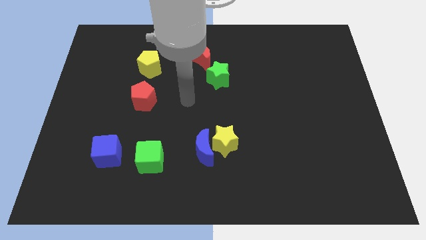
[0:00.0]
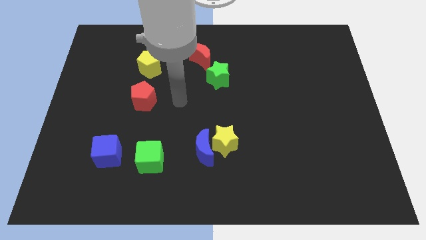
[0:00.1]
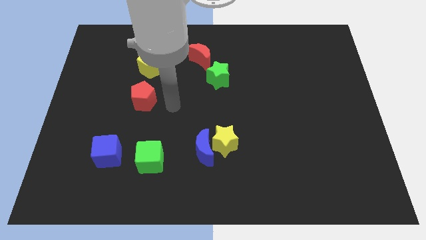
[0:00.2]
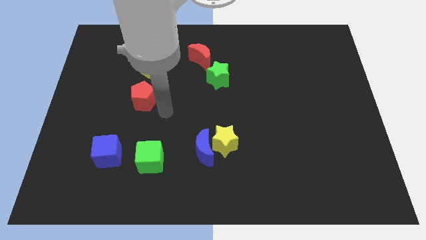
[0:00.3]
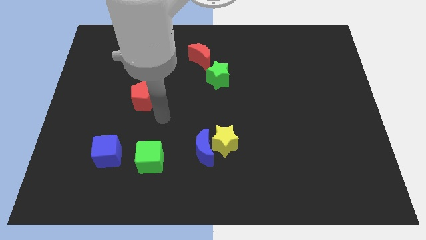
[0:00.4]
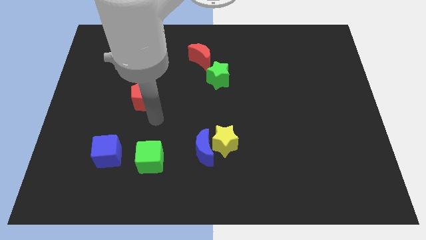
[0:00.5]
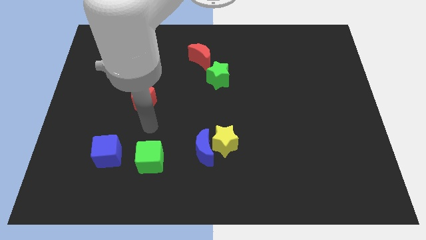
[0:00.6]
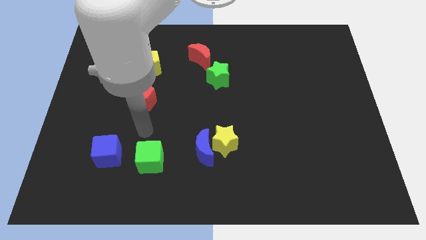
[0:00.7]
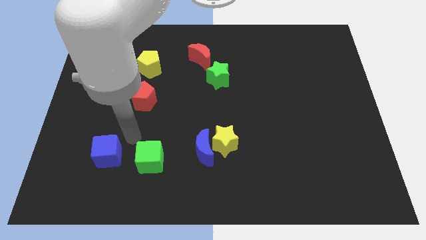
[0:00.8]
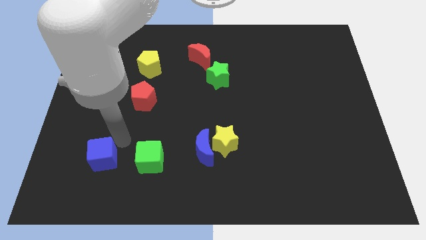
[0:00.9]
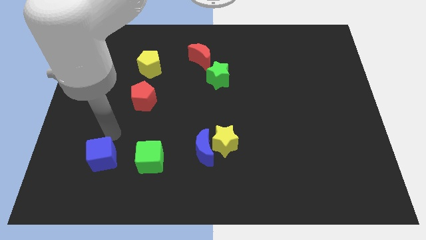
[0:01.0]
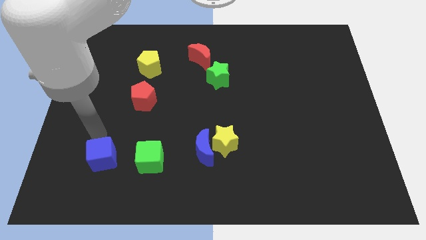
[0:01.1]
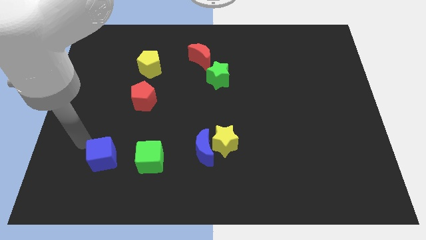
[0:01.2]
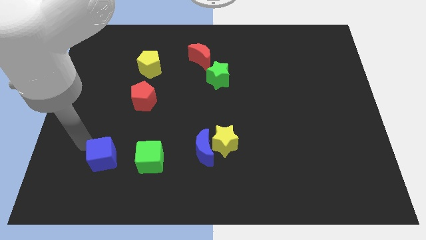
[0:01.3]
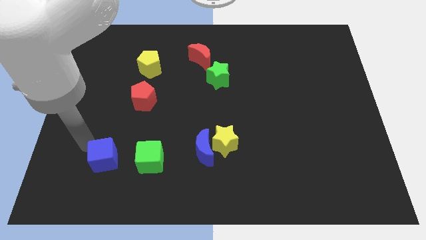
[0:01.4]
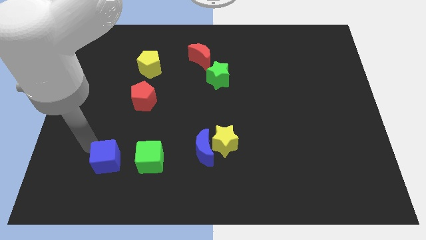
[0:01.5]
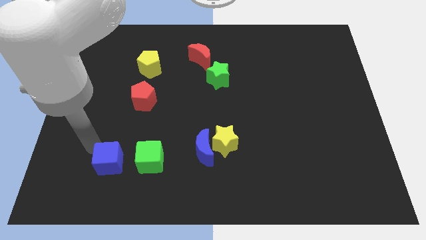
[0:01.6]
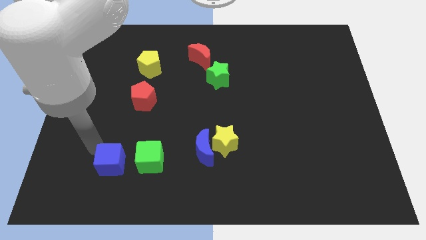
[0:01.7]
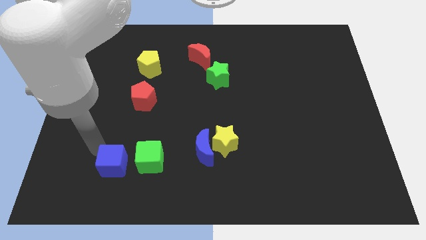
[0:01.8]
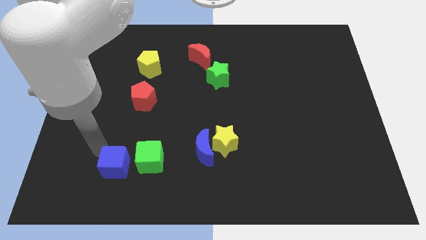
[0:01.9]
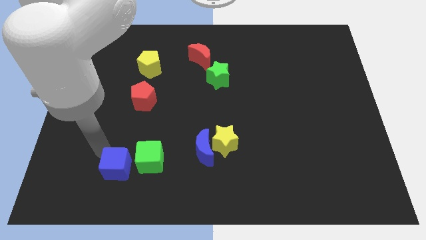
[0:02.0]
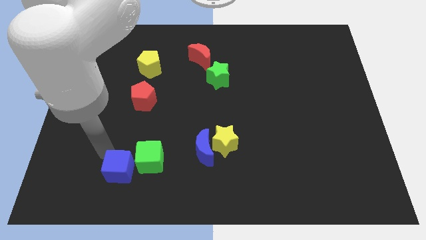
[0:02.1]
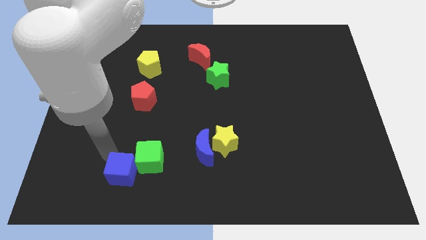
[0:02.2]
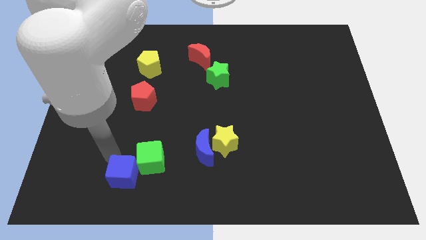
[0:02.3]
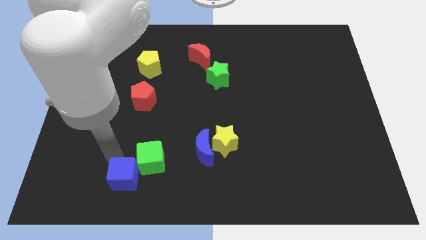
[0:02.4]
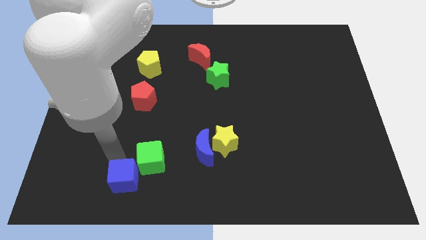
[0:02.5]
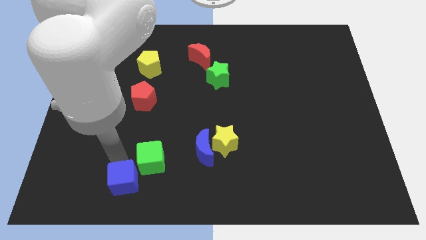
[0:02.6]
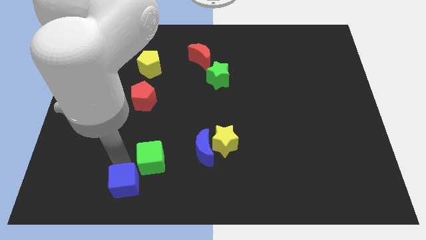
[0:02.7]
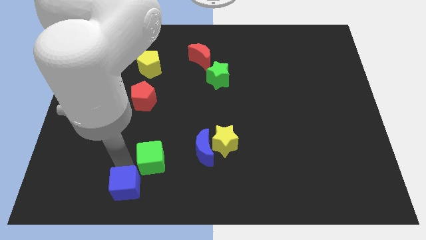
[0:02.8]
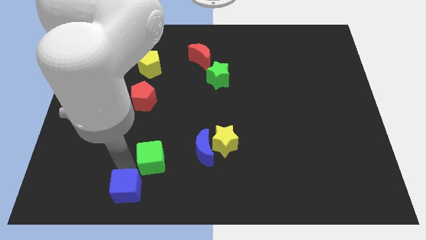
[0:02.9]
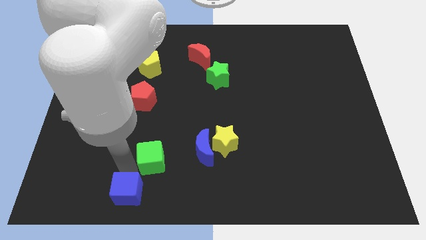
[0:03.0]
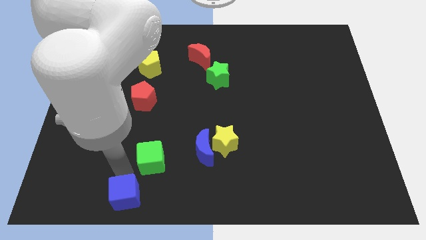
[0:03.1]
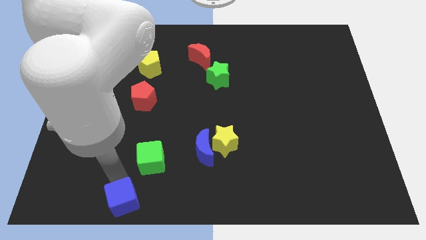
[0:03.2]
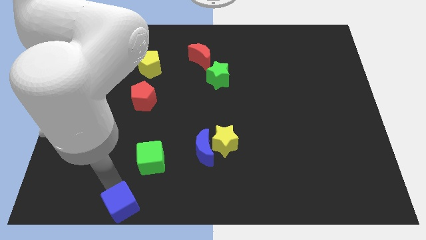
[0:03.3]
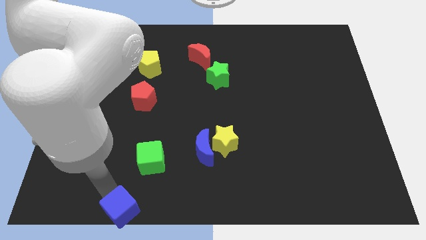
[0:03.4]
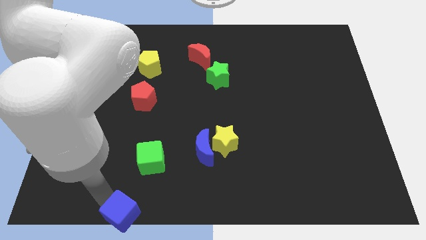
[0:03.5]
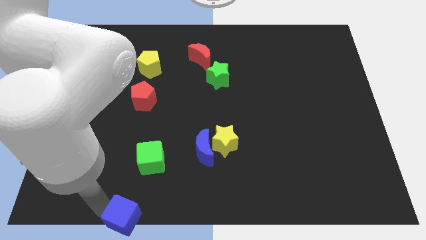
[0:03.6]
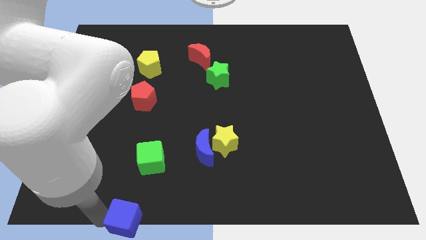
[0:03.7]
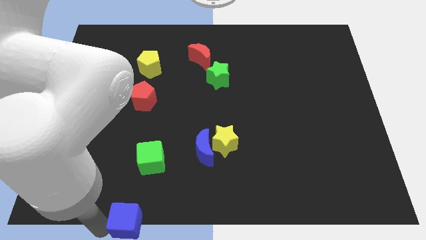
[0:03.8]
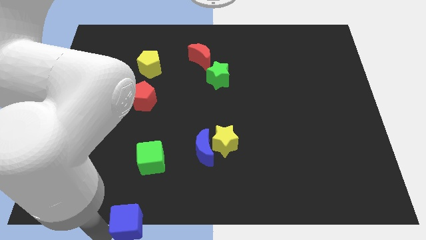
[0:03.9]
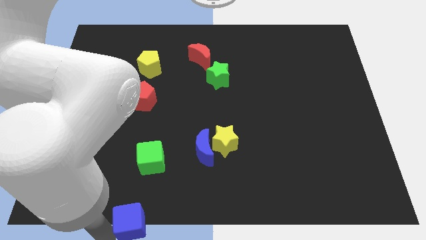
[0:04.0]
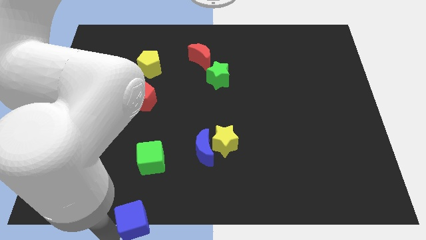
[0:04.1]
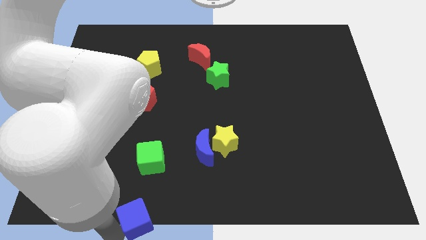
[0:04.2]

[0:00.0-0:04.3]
move the blue cube to the bottom

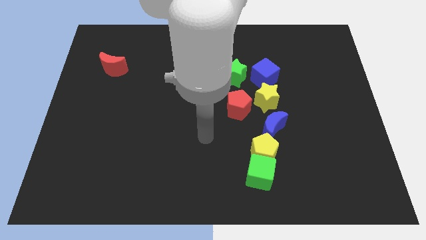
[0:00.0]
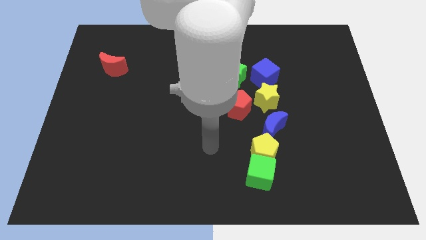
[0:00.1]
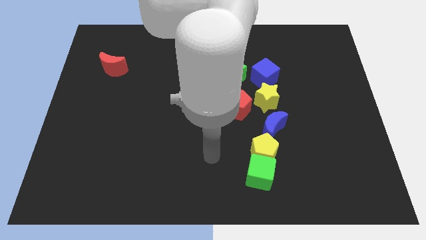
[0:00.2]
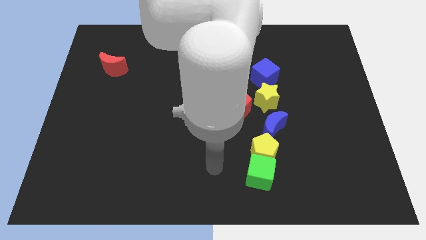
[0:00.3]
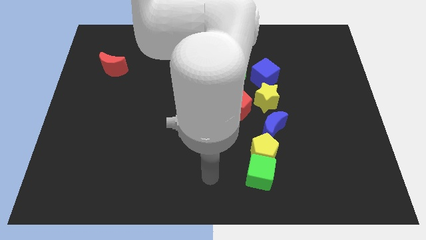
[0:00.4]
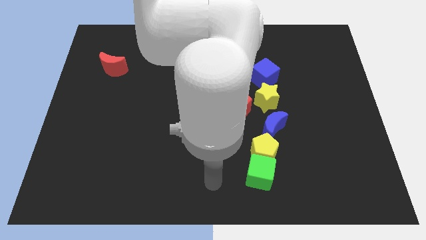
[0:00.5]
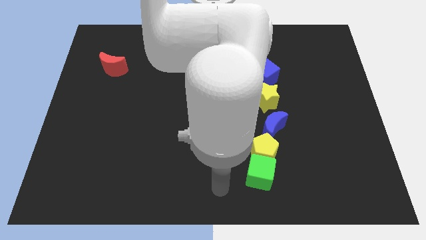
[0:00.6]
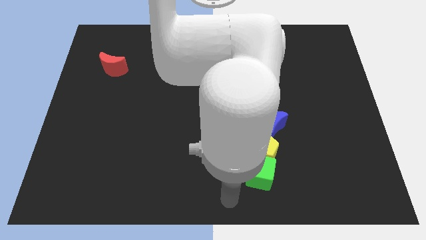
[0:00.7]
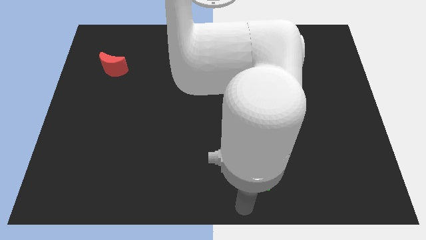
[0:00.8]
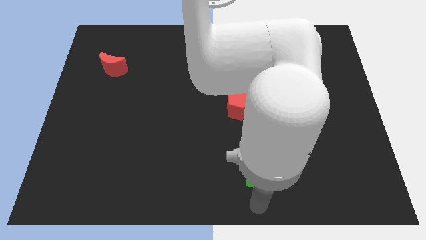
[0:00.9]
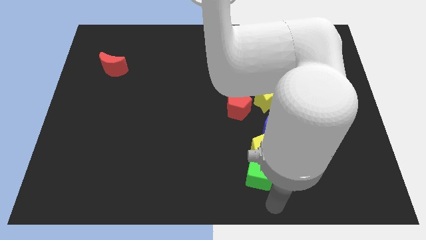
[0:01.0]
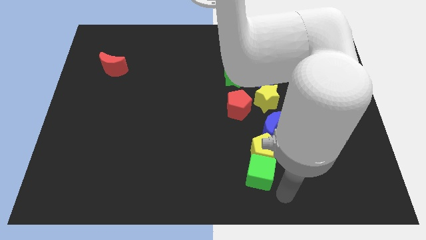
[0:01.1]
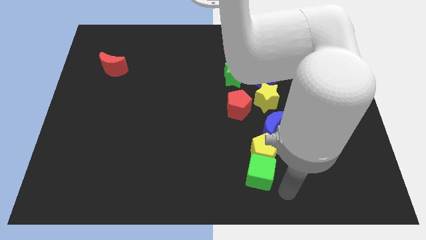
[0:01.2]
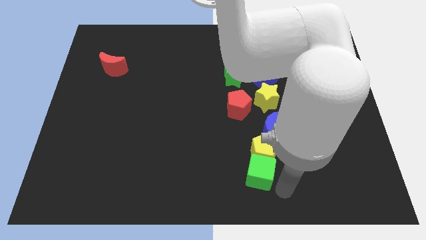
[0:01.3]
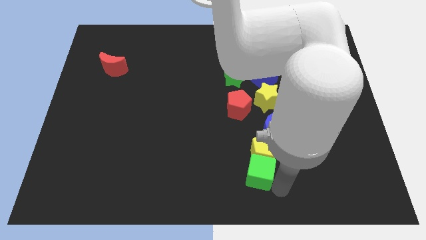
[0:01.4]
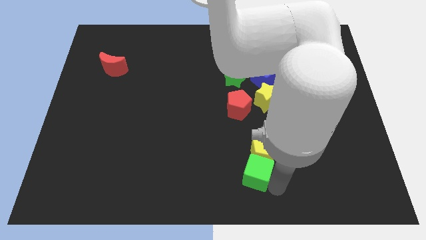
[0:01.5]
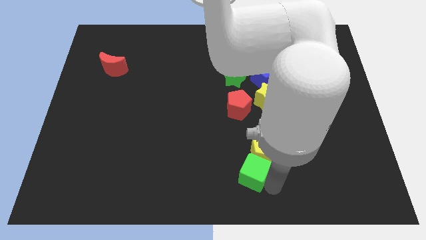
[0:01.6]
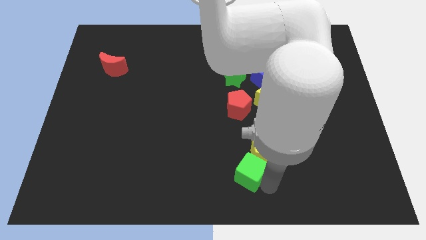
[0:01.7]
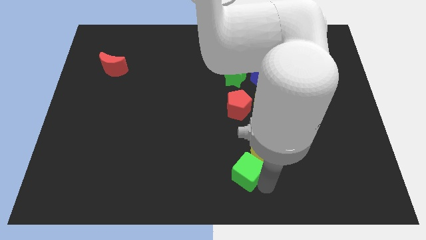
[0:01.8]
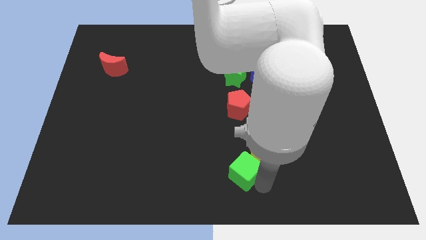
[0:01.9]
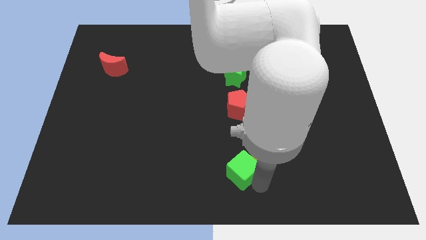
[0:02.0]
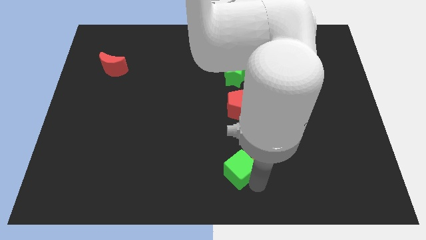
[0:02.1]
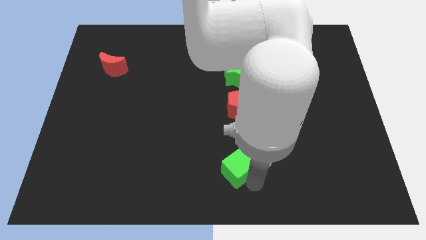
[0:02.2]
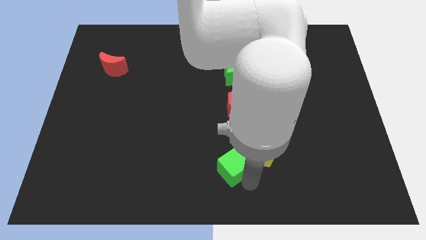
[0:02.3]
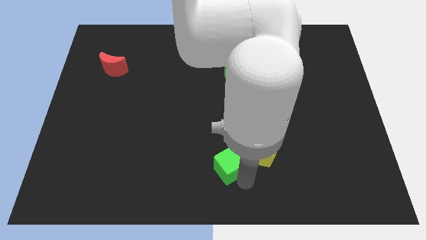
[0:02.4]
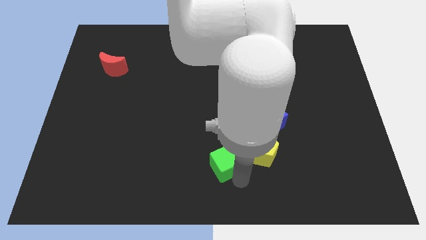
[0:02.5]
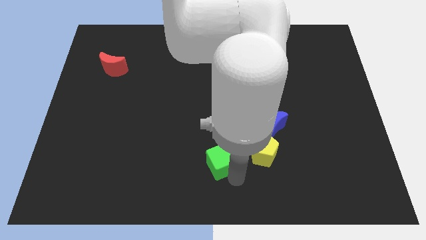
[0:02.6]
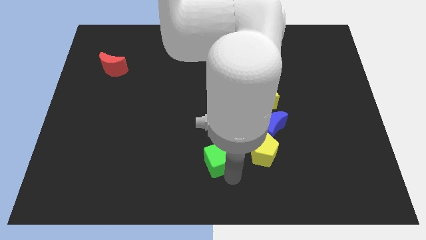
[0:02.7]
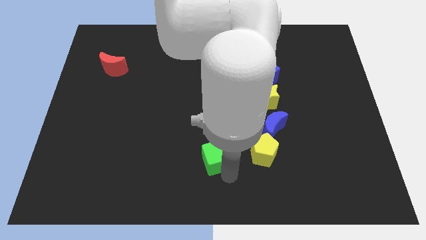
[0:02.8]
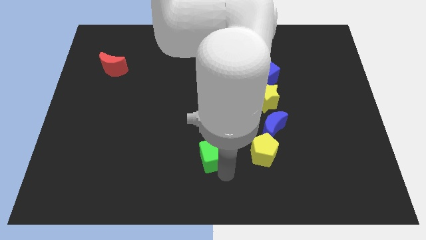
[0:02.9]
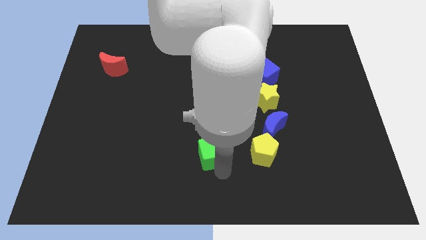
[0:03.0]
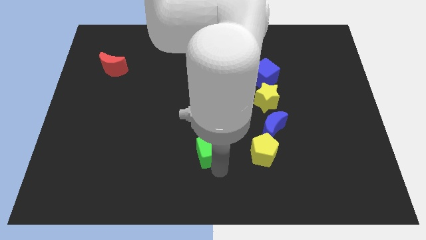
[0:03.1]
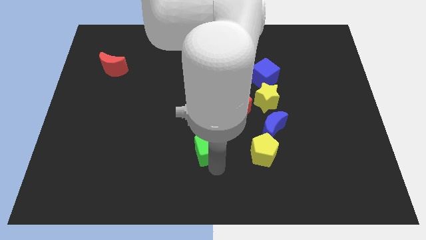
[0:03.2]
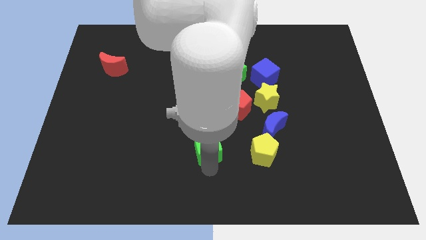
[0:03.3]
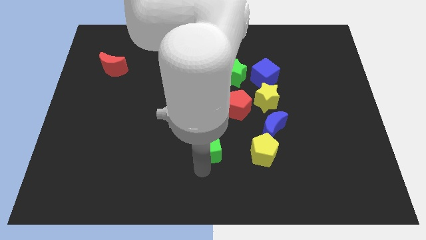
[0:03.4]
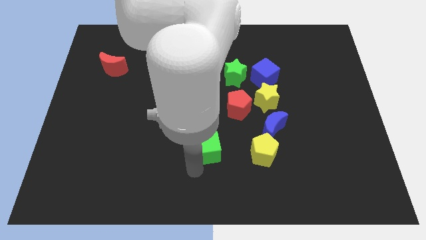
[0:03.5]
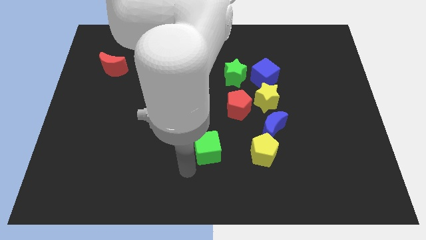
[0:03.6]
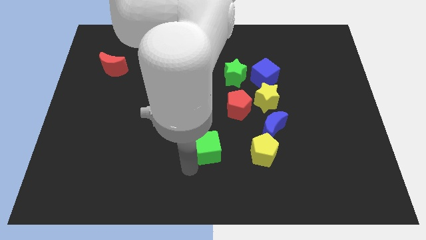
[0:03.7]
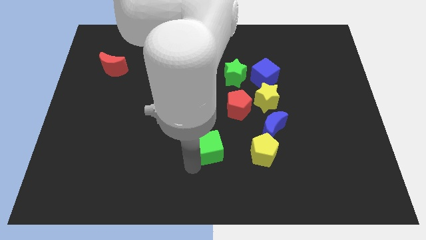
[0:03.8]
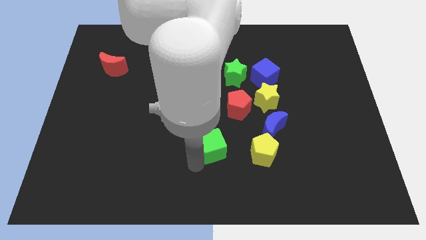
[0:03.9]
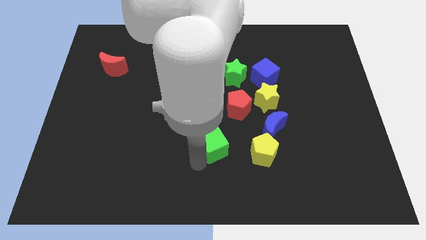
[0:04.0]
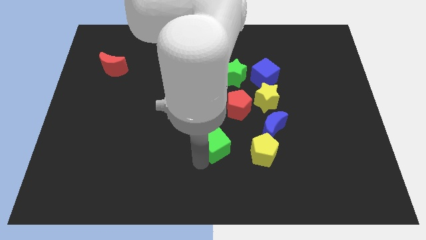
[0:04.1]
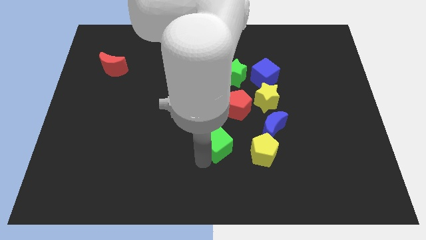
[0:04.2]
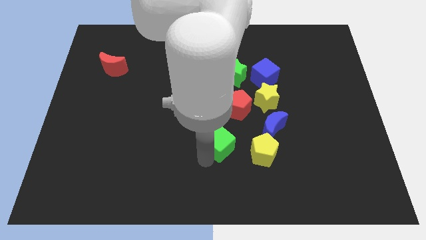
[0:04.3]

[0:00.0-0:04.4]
slide the green cube to the center of the board
